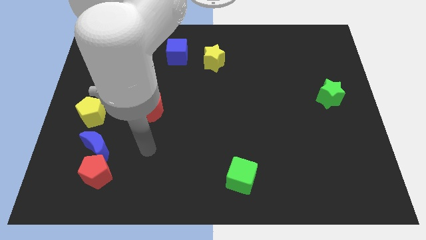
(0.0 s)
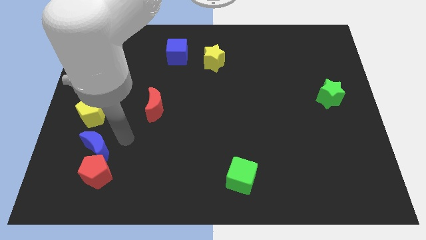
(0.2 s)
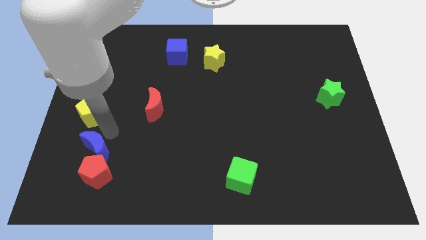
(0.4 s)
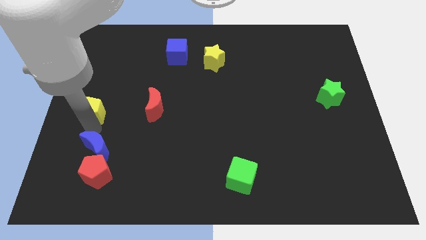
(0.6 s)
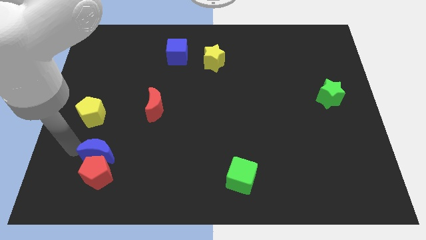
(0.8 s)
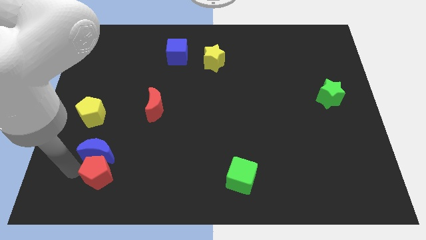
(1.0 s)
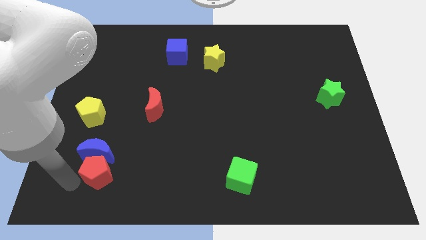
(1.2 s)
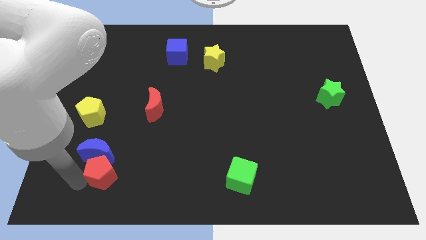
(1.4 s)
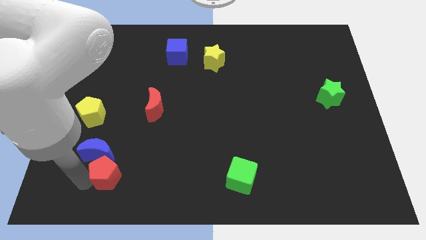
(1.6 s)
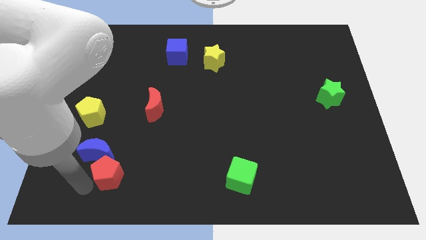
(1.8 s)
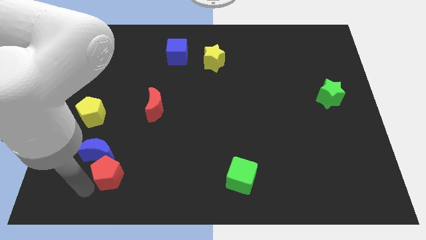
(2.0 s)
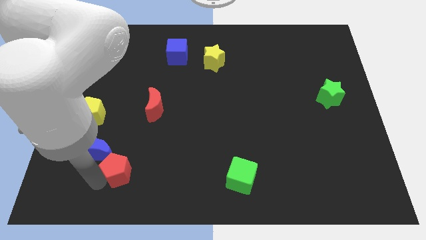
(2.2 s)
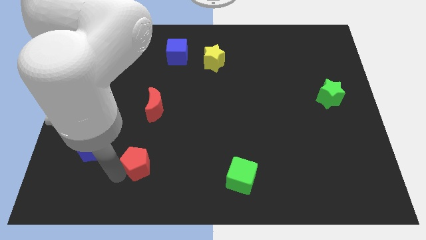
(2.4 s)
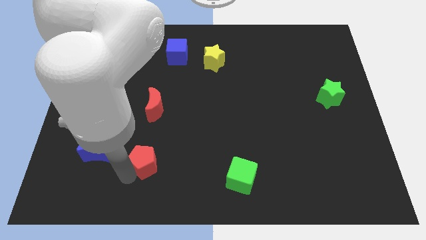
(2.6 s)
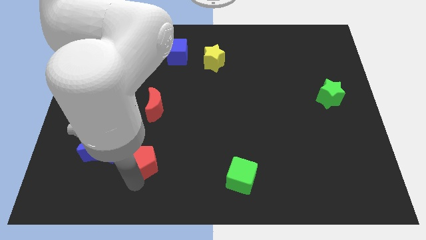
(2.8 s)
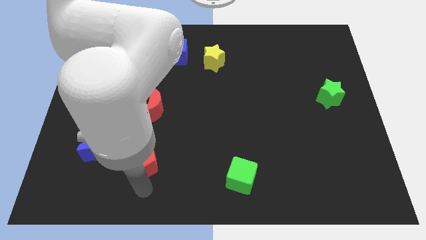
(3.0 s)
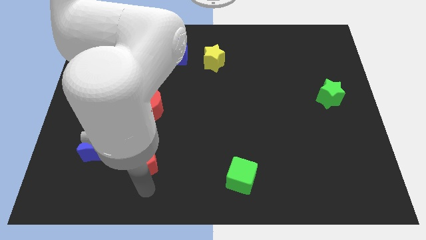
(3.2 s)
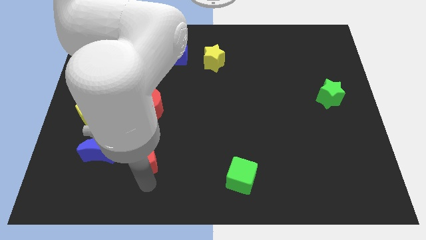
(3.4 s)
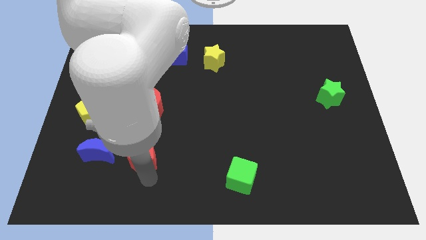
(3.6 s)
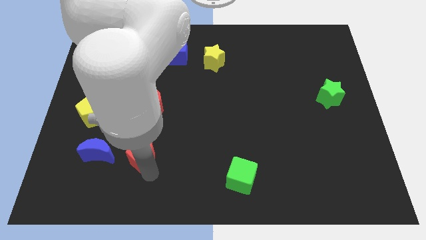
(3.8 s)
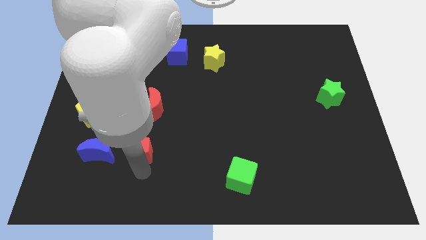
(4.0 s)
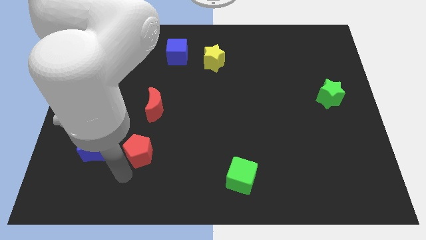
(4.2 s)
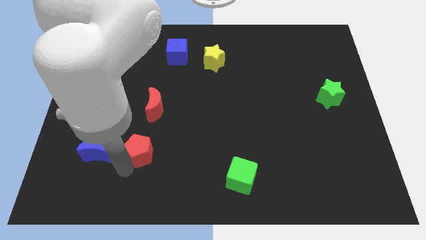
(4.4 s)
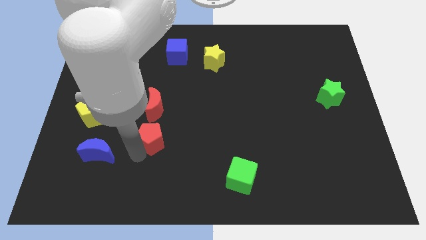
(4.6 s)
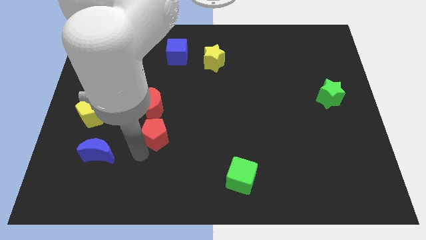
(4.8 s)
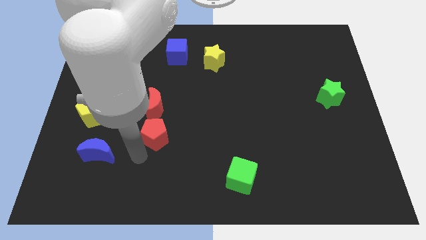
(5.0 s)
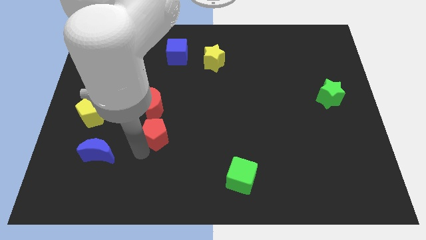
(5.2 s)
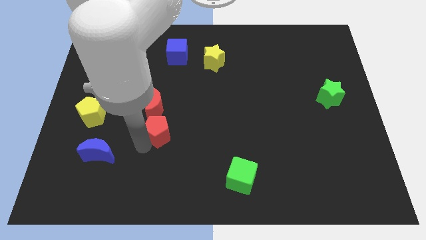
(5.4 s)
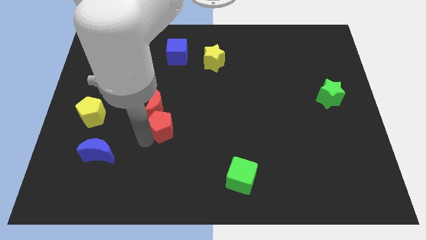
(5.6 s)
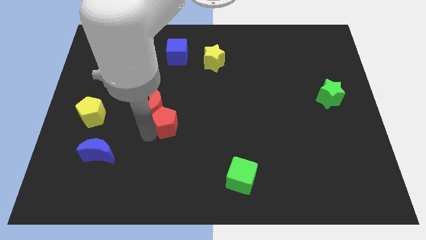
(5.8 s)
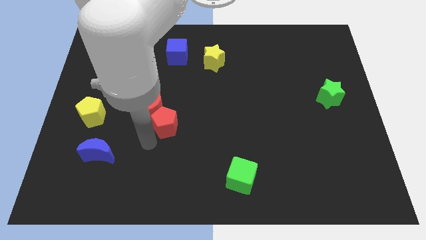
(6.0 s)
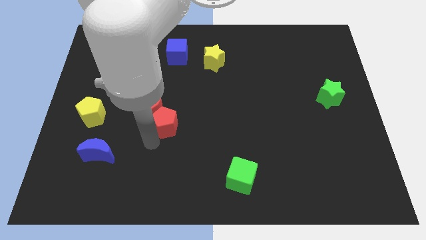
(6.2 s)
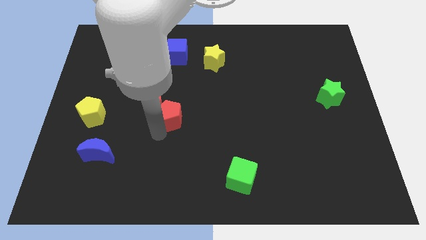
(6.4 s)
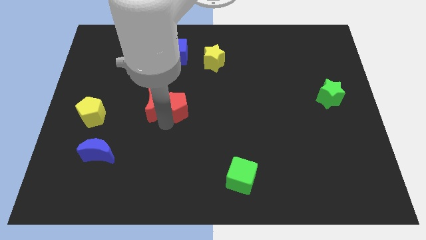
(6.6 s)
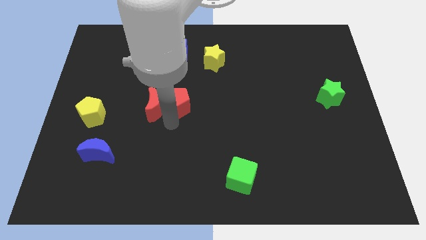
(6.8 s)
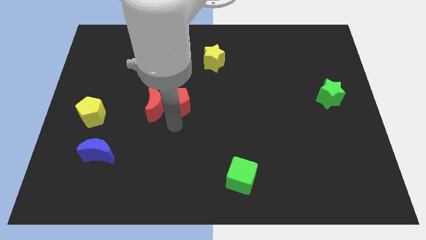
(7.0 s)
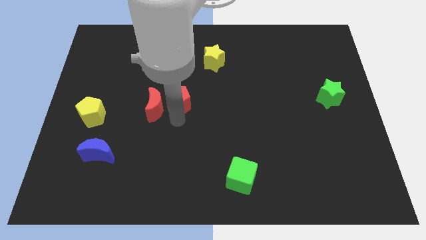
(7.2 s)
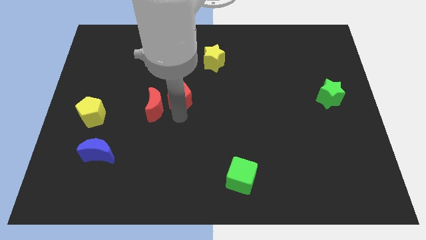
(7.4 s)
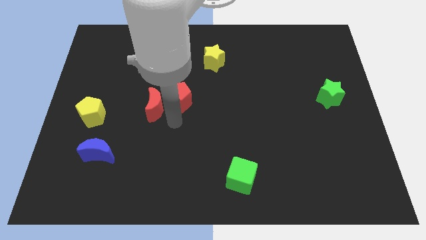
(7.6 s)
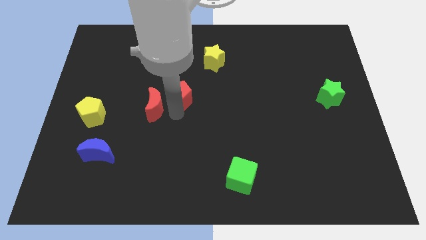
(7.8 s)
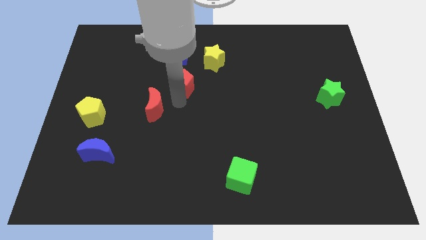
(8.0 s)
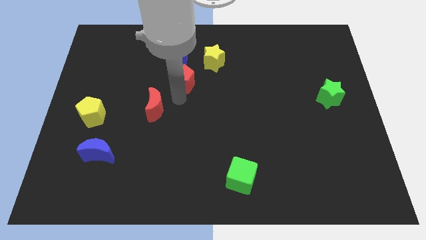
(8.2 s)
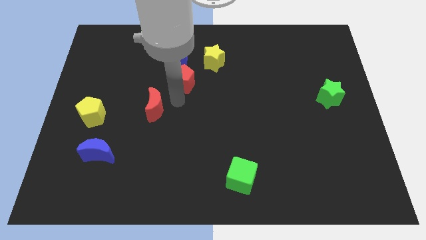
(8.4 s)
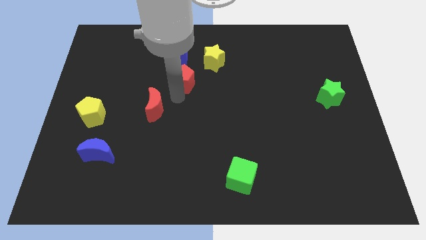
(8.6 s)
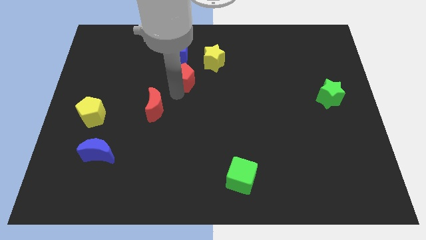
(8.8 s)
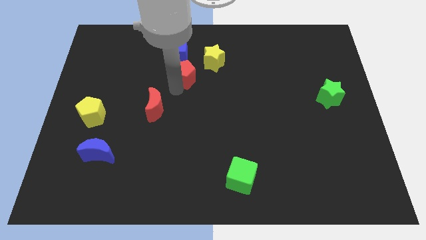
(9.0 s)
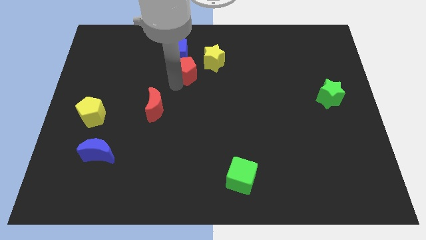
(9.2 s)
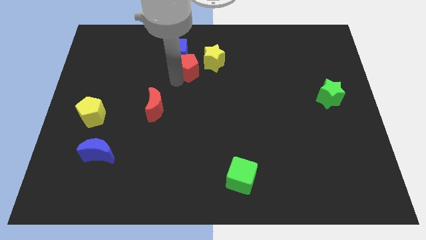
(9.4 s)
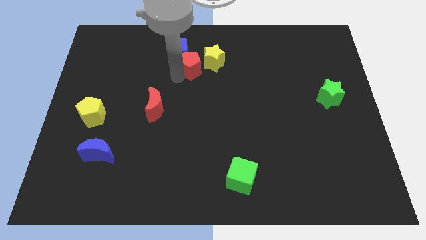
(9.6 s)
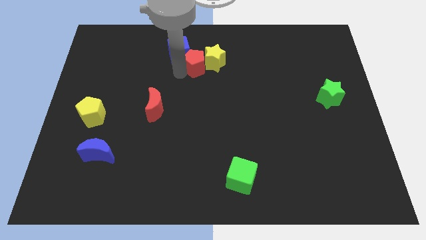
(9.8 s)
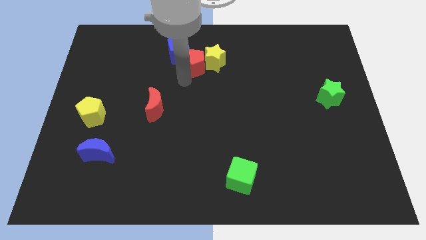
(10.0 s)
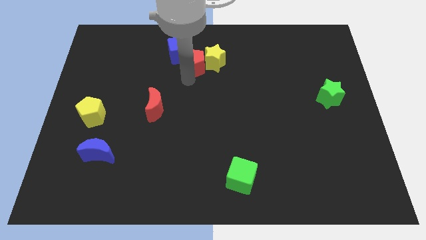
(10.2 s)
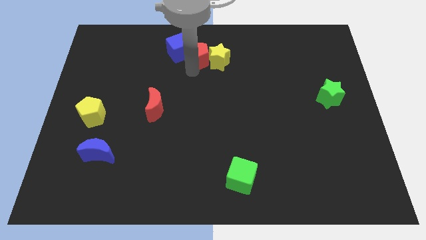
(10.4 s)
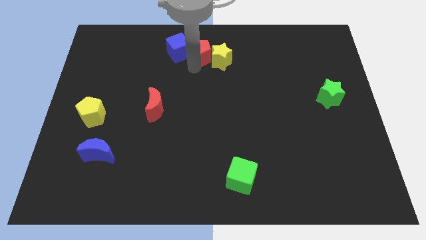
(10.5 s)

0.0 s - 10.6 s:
put the red pentagon to the top
